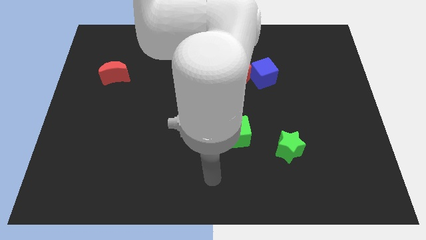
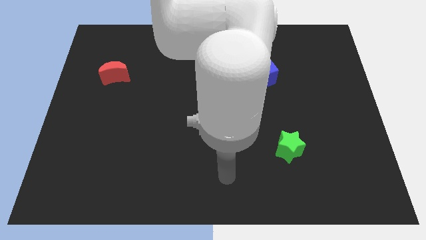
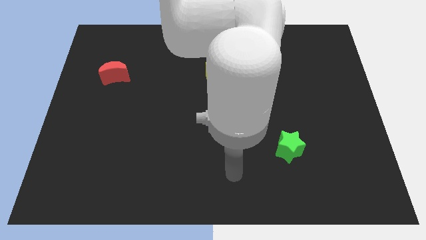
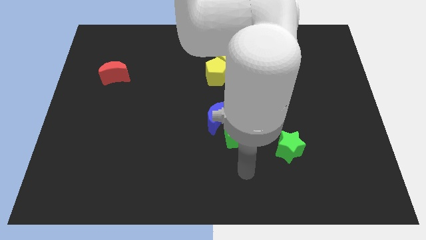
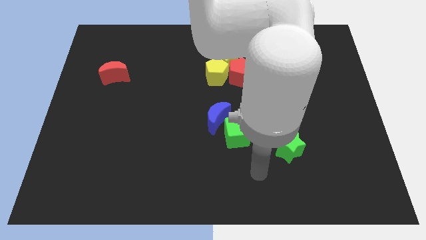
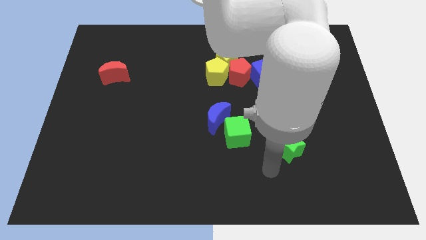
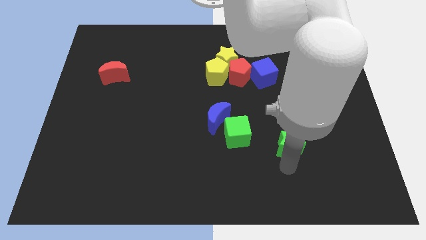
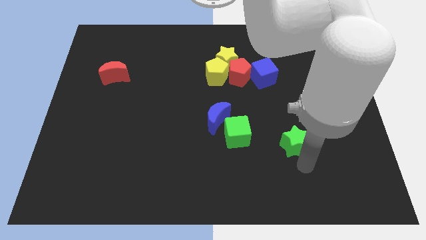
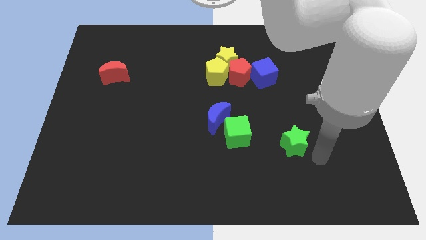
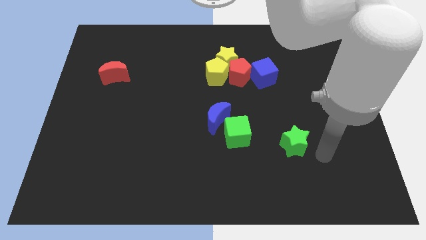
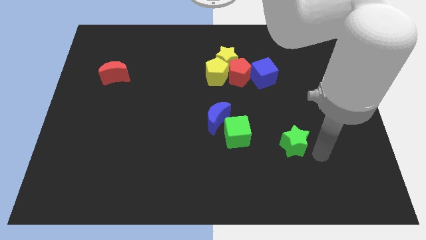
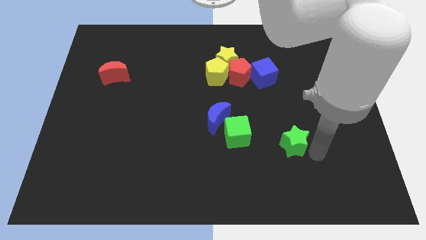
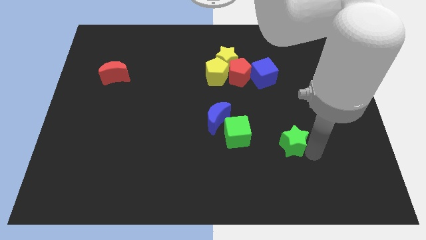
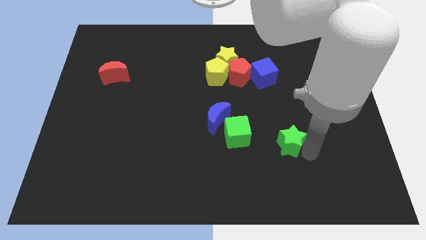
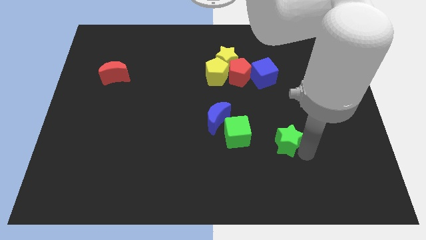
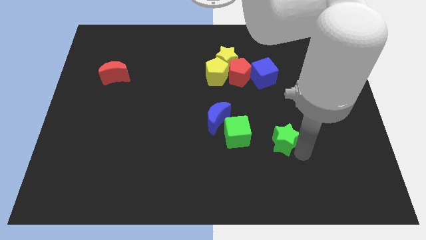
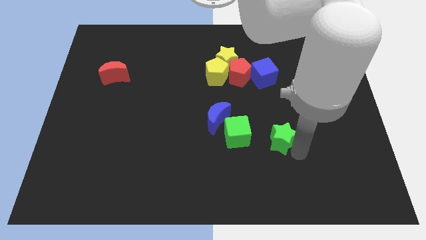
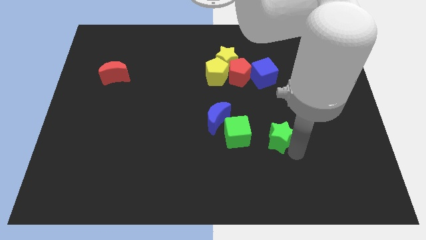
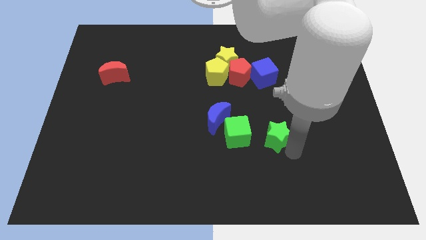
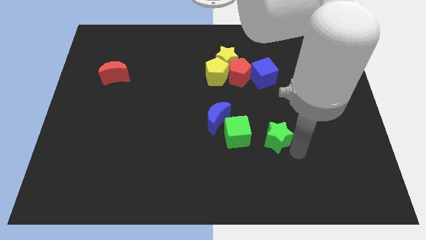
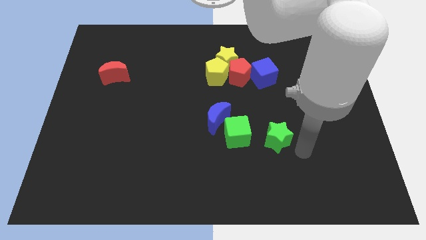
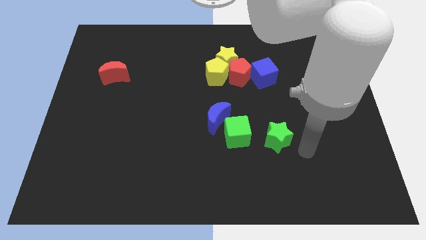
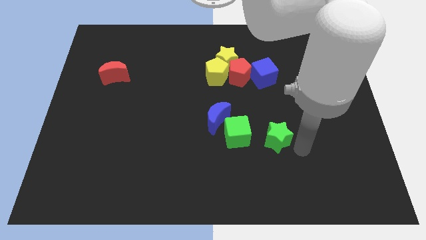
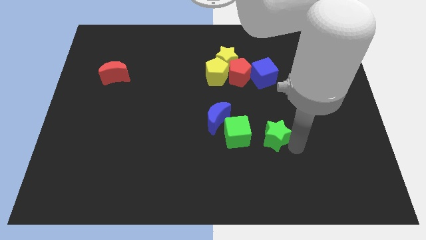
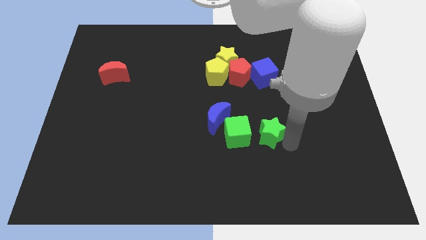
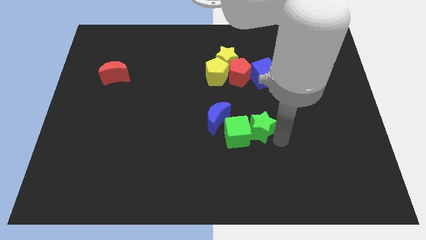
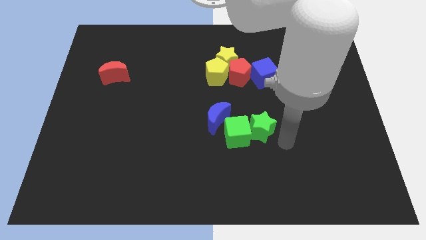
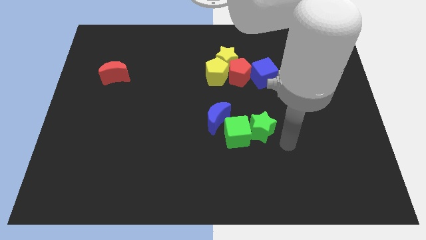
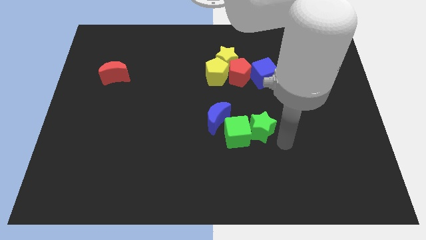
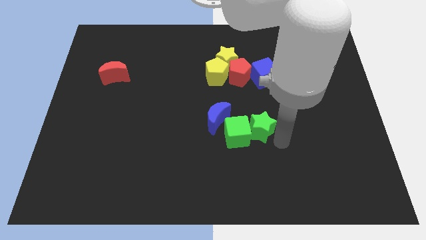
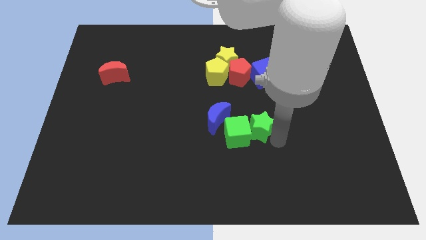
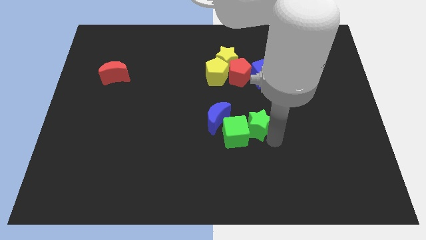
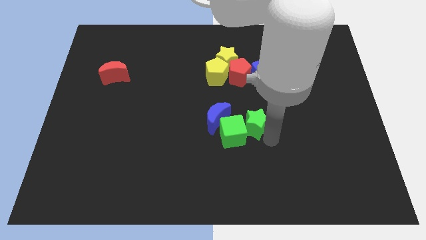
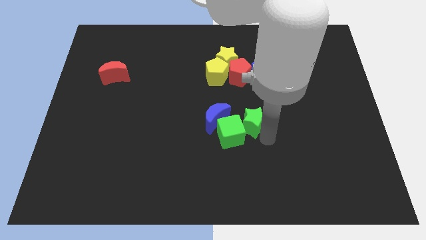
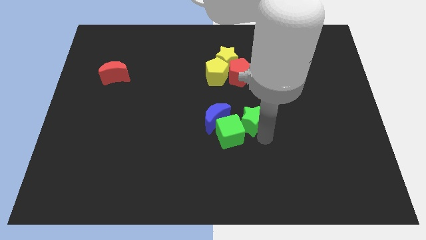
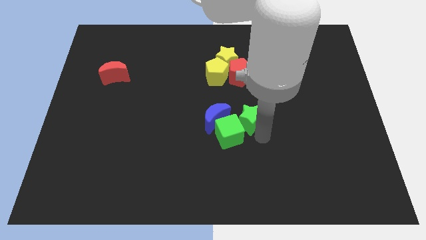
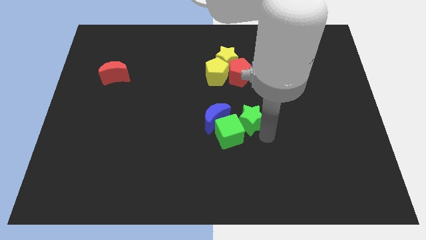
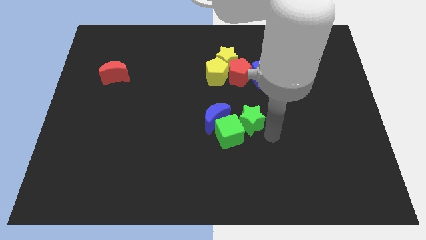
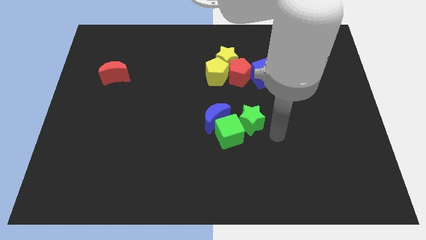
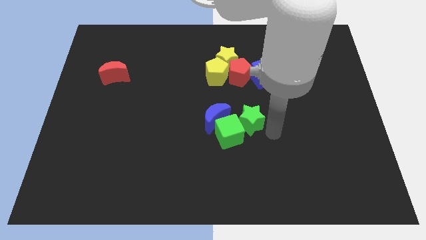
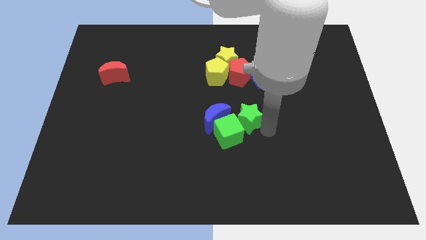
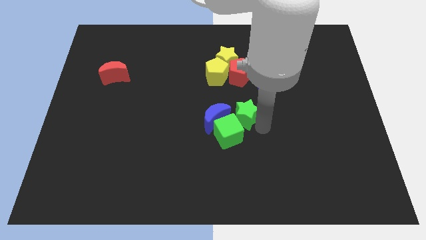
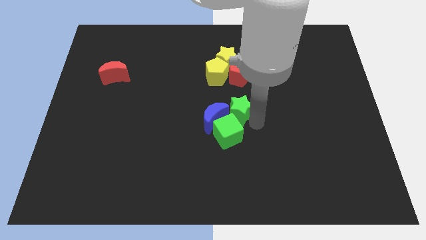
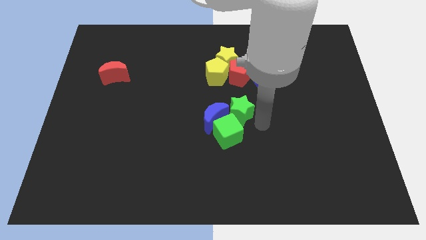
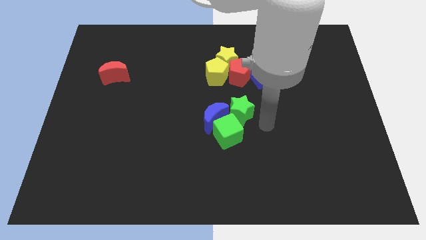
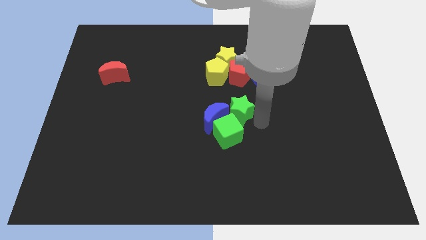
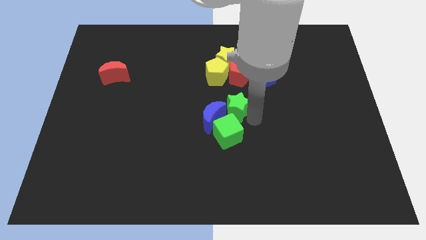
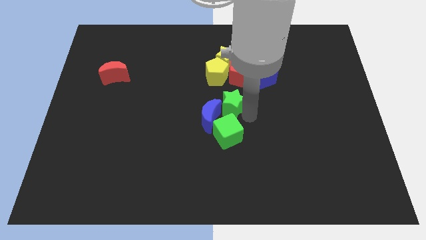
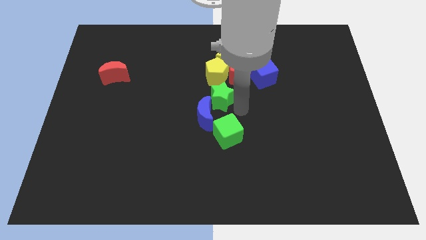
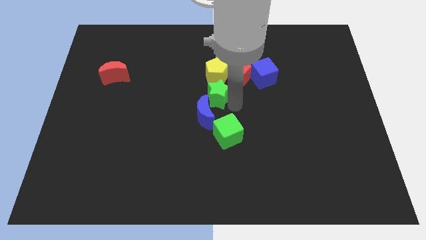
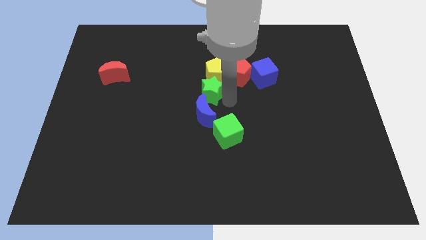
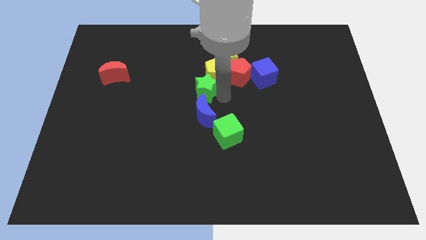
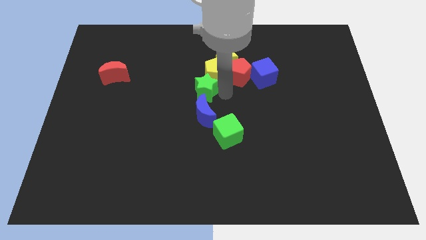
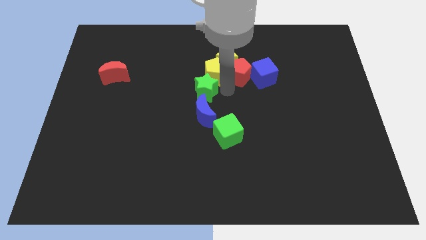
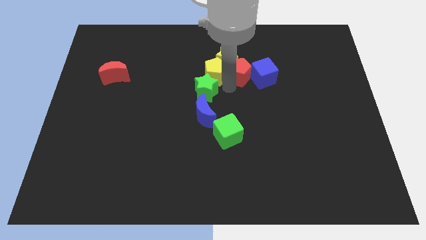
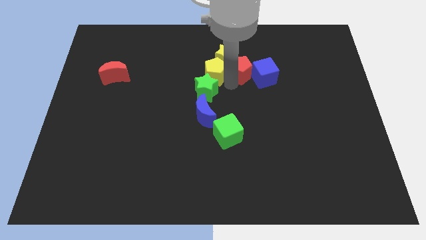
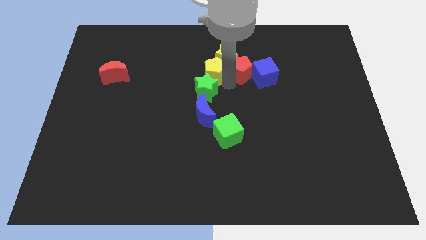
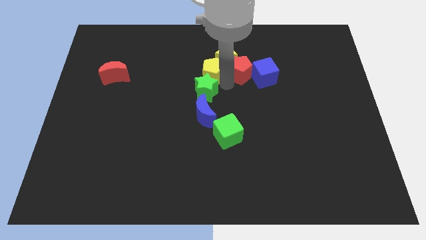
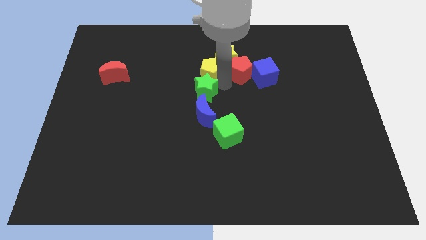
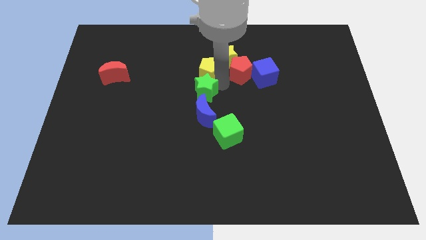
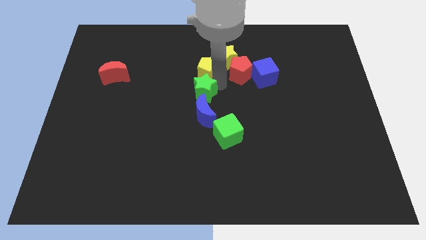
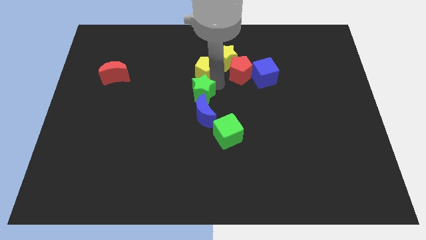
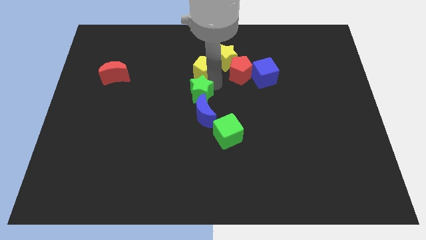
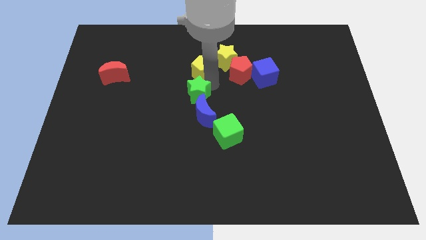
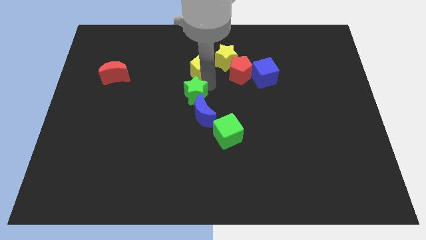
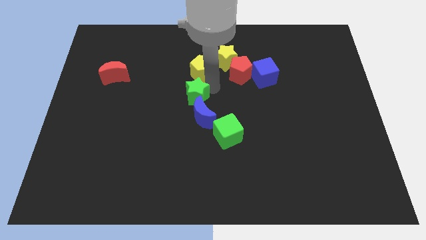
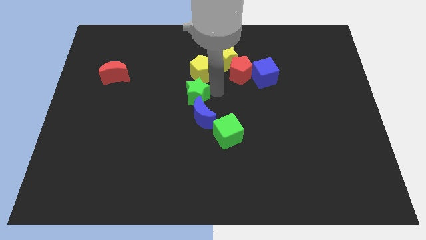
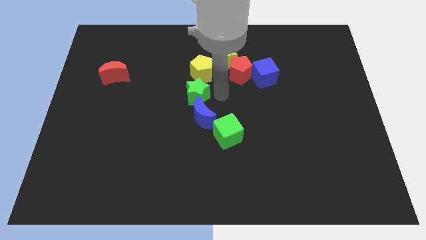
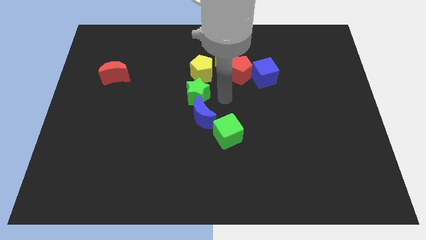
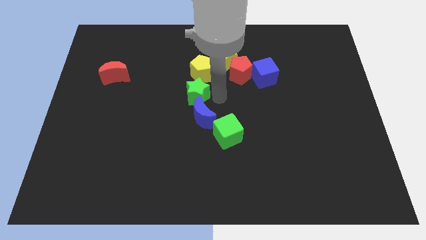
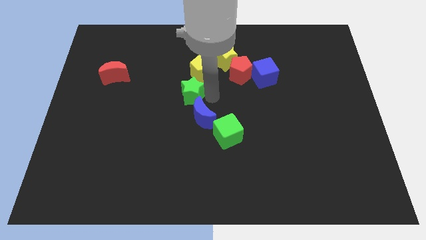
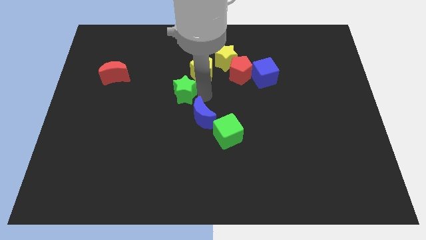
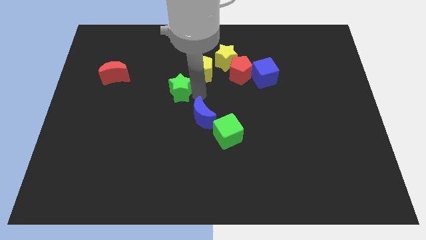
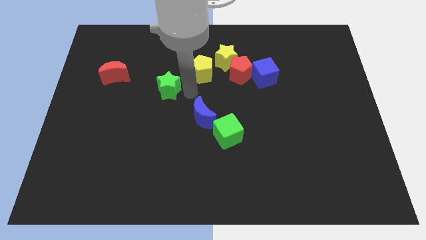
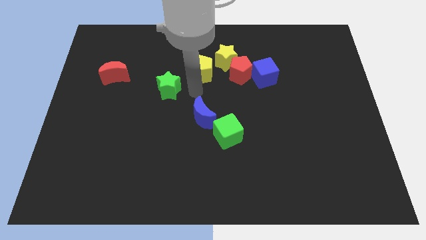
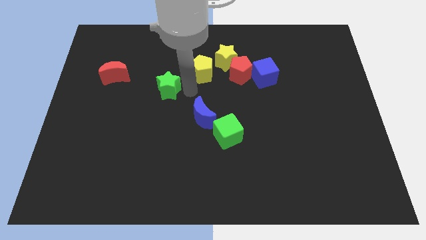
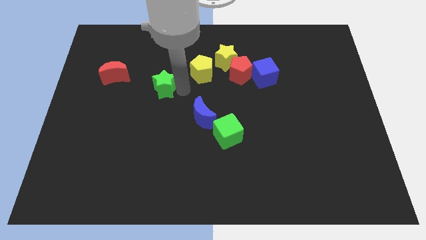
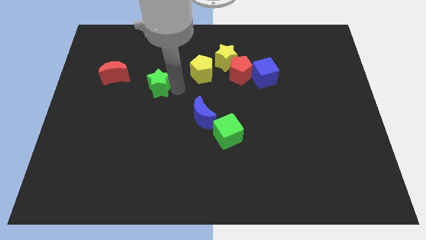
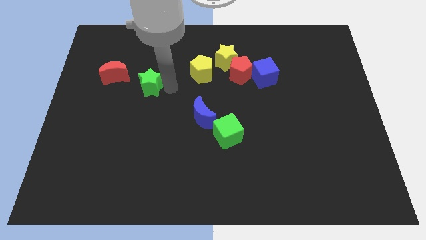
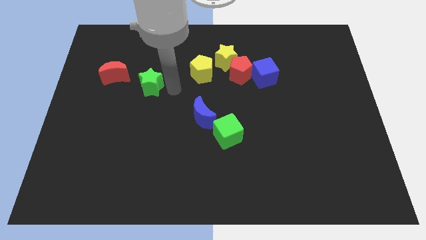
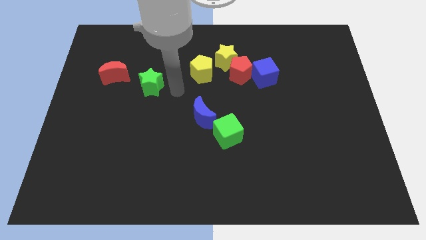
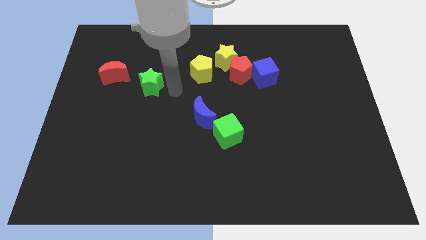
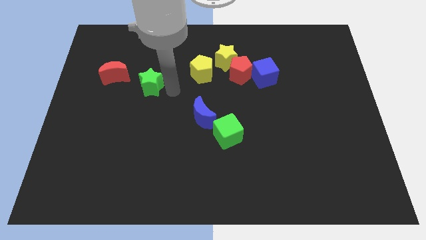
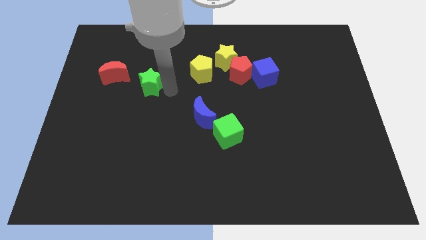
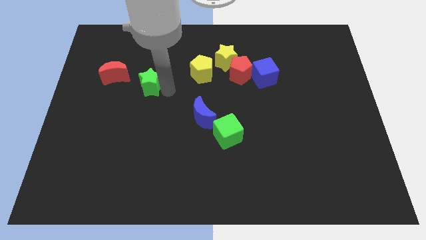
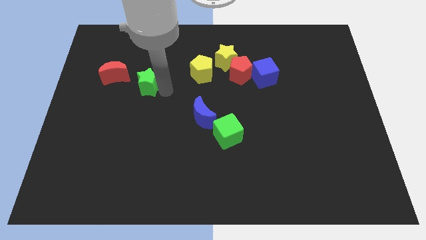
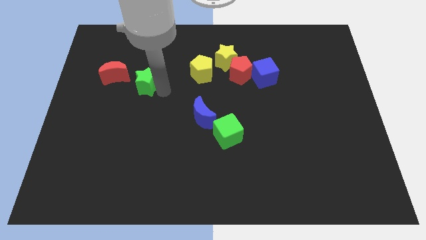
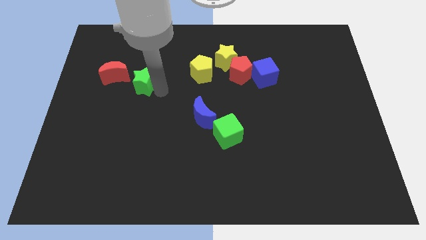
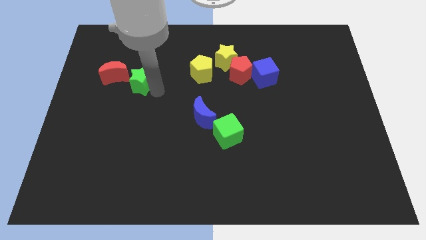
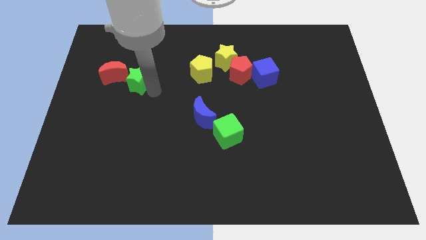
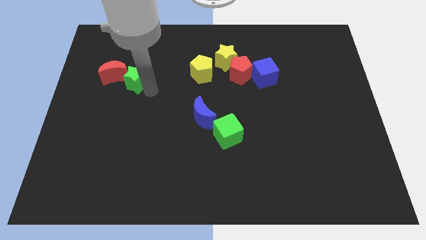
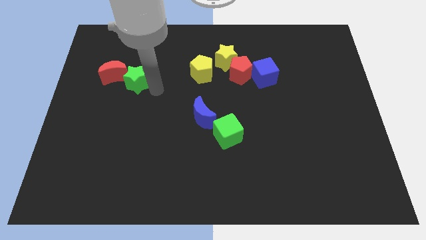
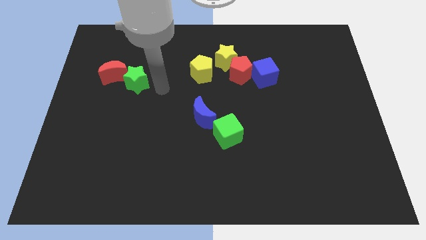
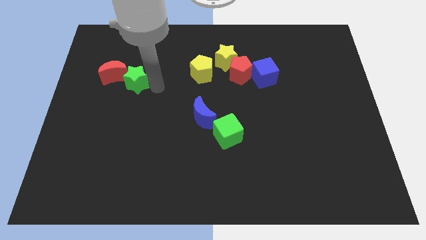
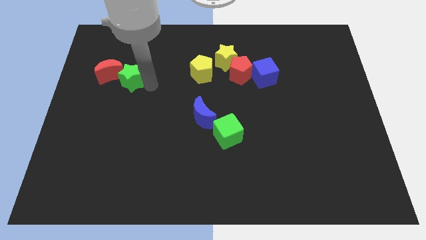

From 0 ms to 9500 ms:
push the green star next to the red moon
